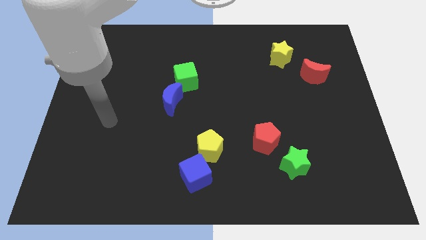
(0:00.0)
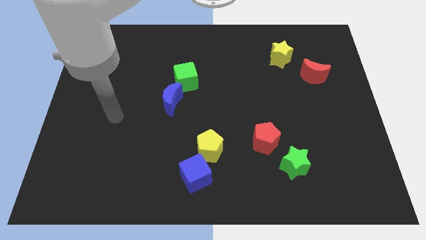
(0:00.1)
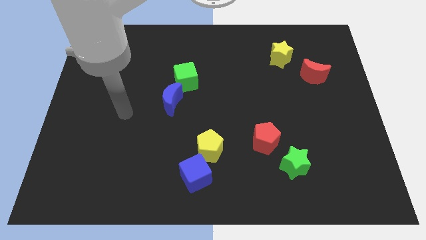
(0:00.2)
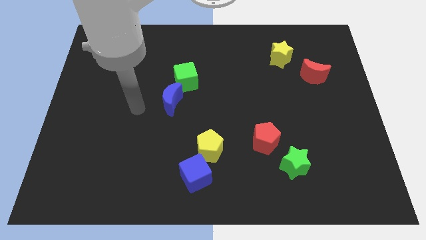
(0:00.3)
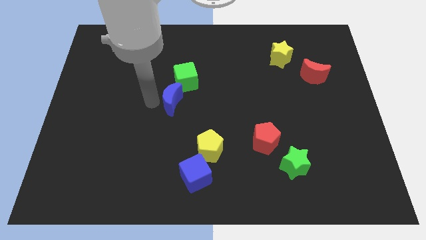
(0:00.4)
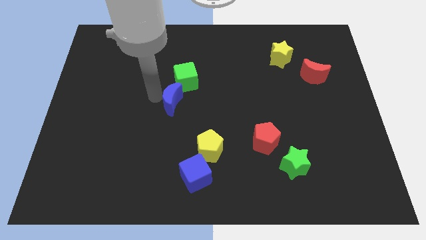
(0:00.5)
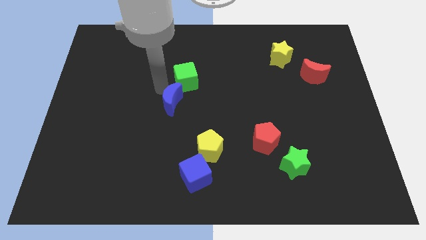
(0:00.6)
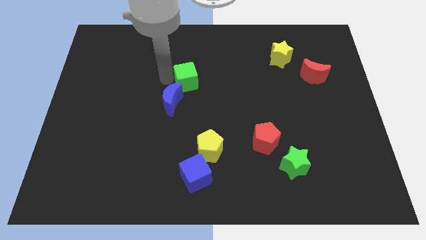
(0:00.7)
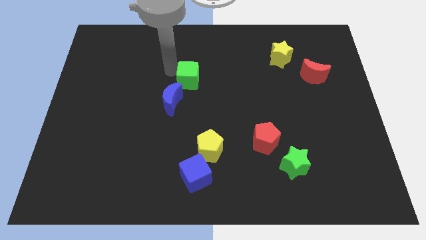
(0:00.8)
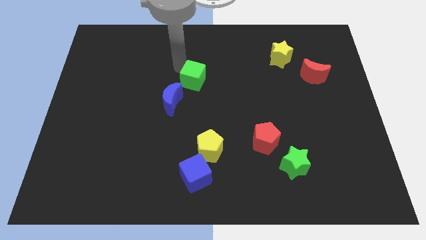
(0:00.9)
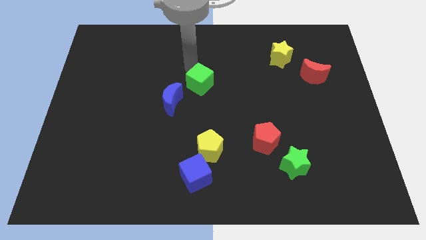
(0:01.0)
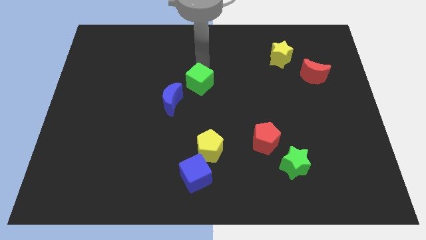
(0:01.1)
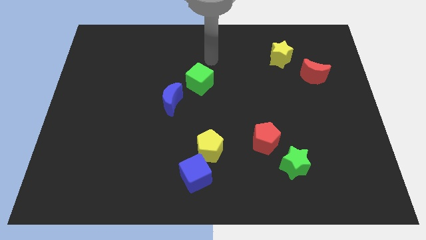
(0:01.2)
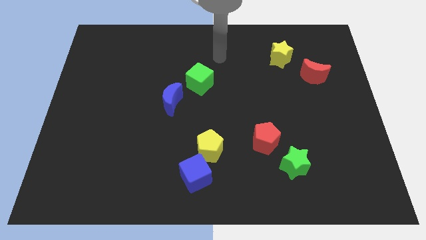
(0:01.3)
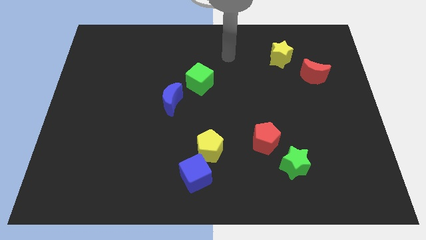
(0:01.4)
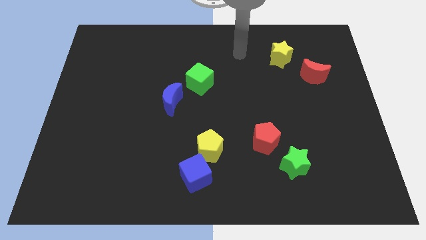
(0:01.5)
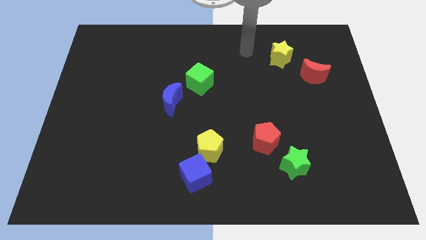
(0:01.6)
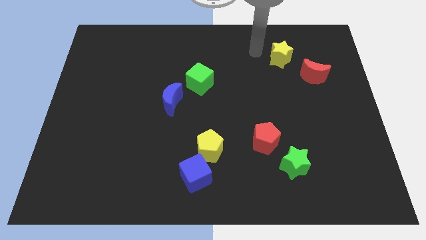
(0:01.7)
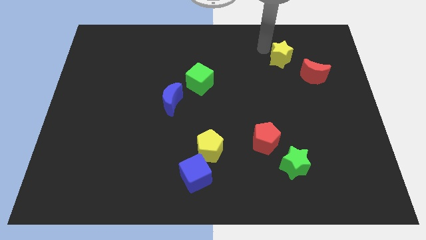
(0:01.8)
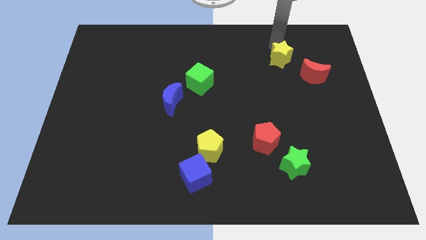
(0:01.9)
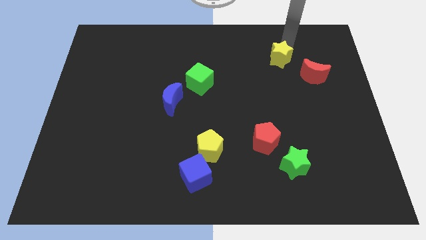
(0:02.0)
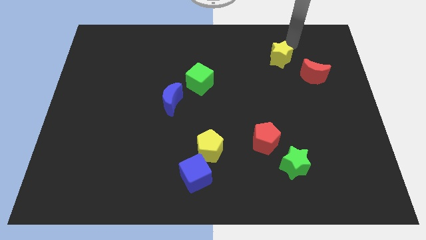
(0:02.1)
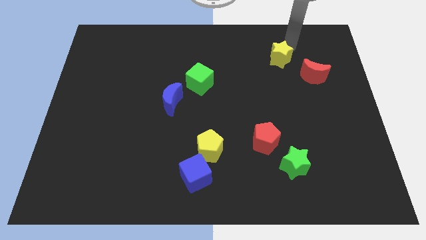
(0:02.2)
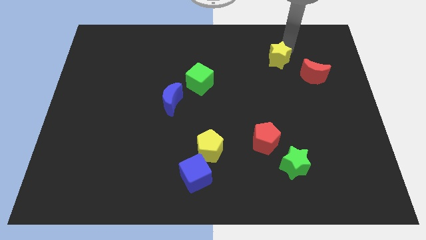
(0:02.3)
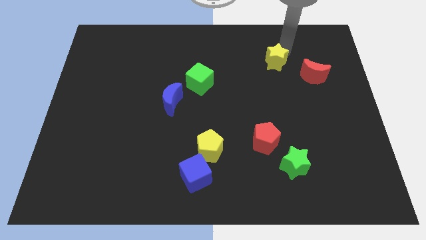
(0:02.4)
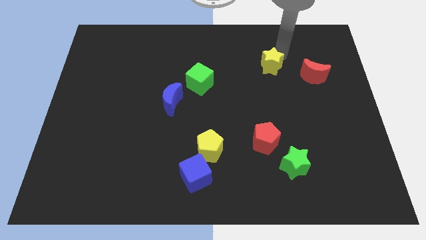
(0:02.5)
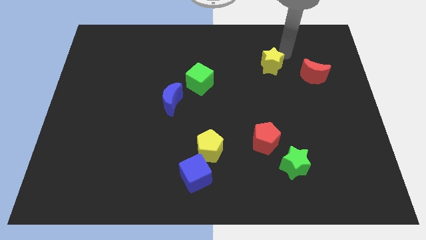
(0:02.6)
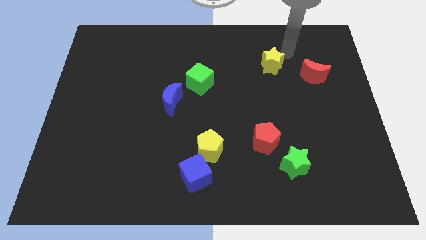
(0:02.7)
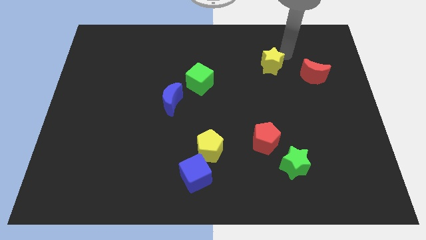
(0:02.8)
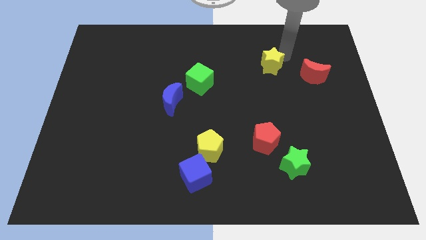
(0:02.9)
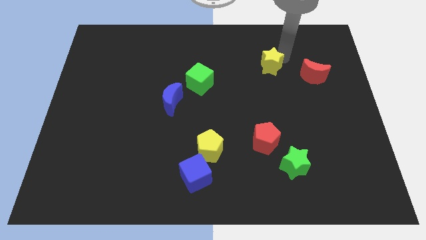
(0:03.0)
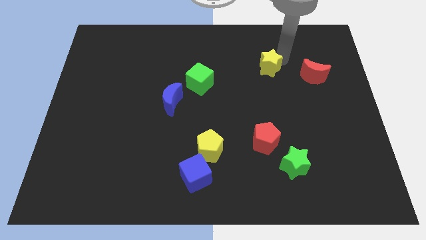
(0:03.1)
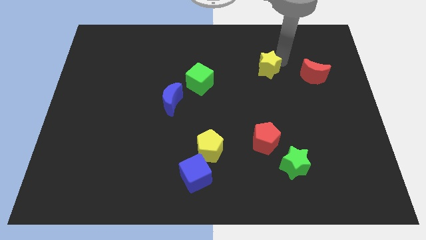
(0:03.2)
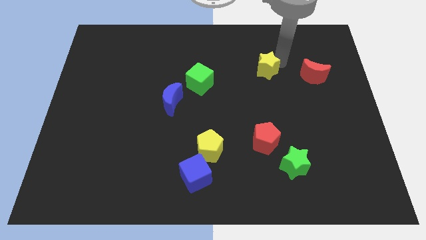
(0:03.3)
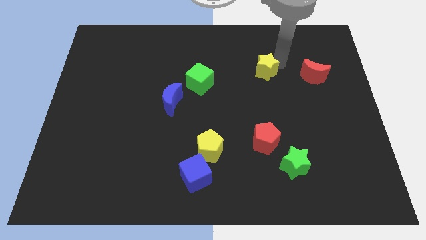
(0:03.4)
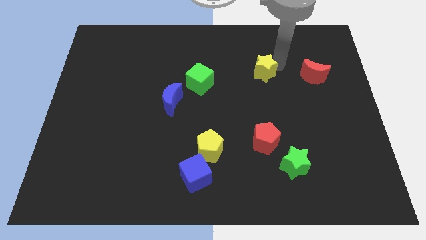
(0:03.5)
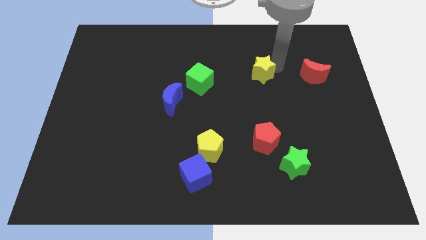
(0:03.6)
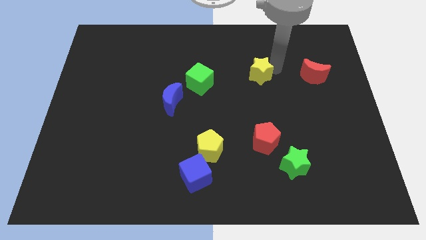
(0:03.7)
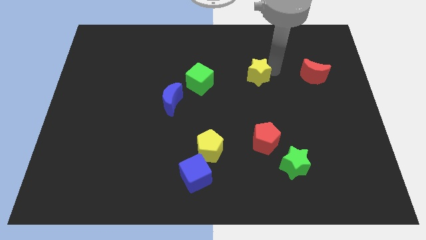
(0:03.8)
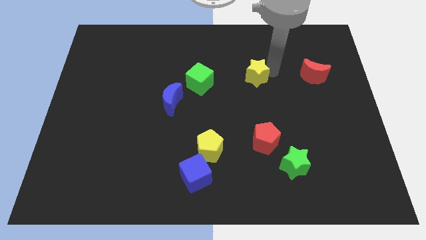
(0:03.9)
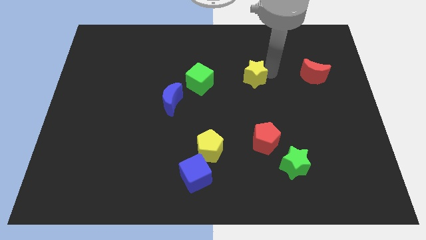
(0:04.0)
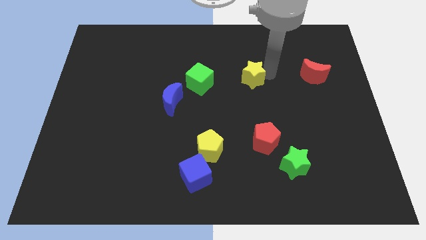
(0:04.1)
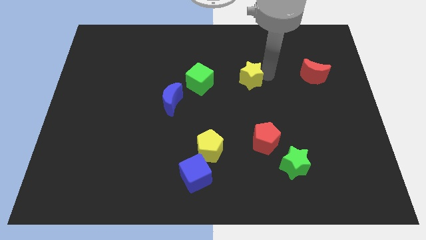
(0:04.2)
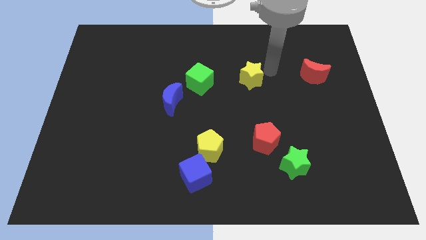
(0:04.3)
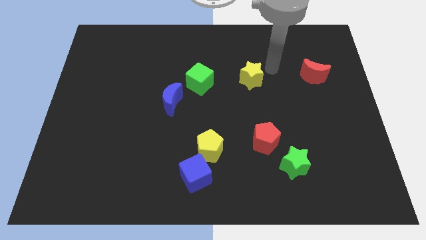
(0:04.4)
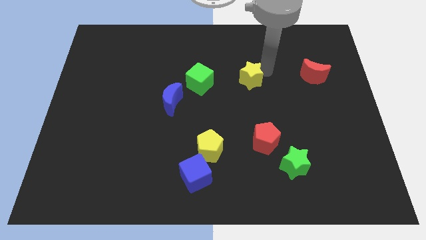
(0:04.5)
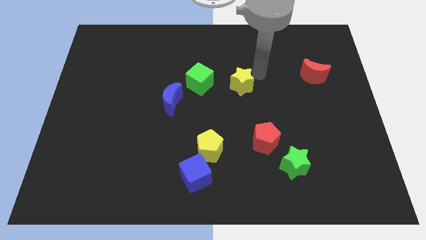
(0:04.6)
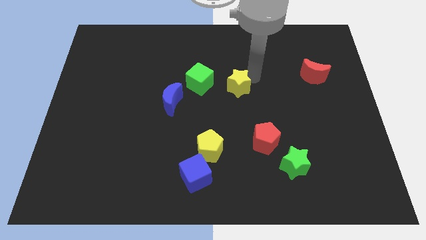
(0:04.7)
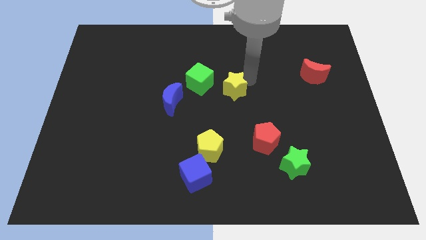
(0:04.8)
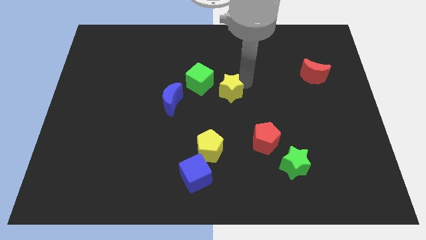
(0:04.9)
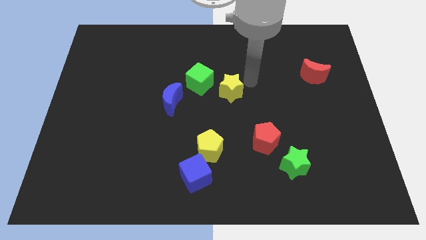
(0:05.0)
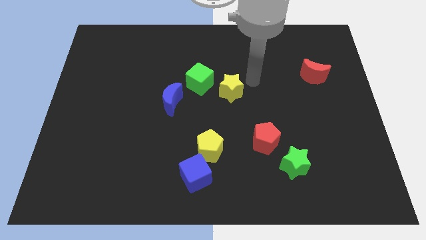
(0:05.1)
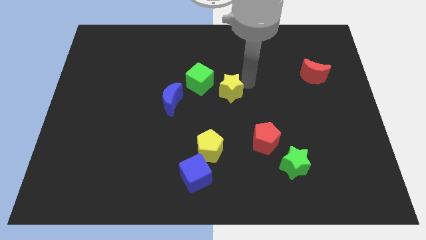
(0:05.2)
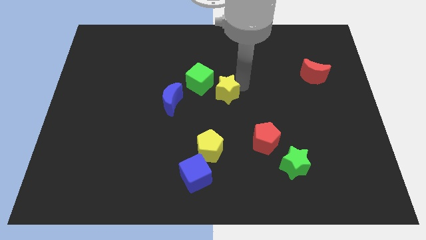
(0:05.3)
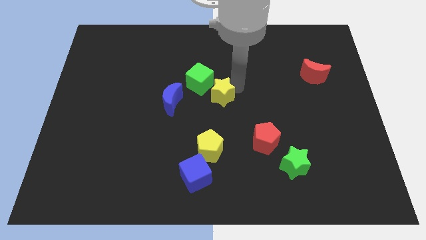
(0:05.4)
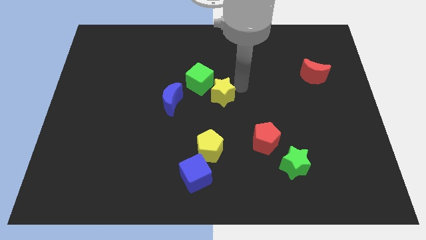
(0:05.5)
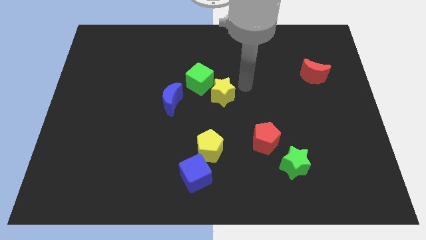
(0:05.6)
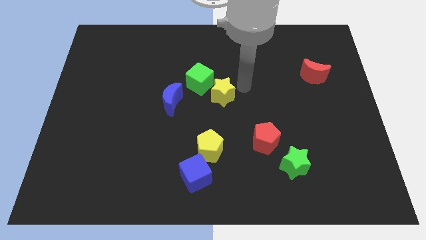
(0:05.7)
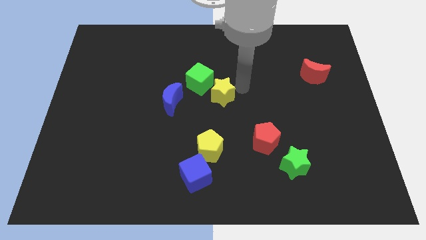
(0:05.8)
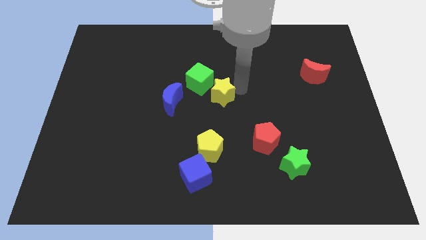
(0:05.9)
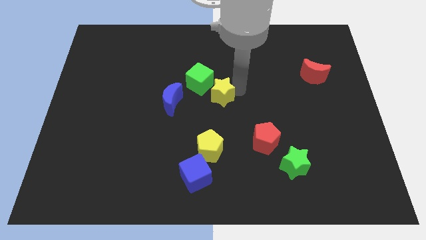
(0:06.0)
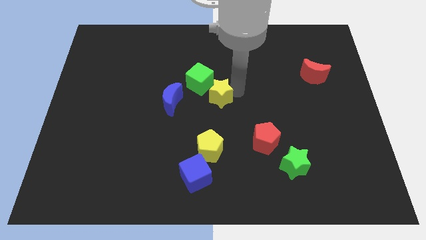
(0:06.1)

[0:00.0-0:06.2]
move the yellow star below the green cube
